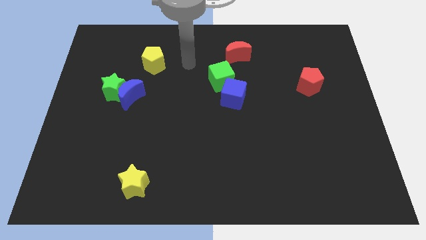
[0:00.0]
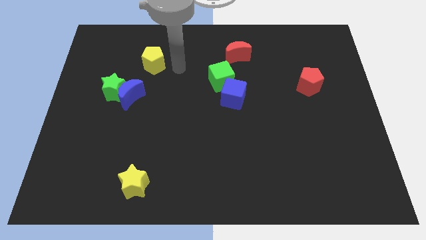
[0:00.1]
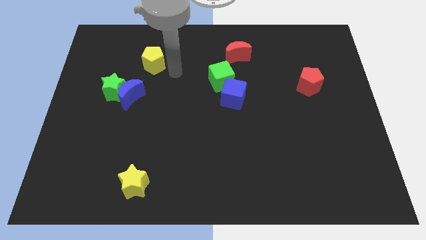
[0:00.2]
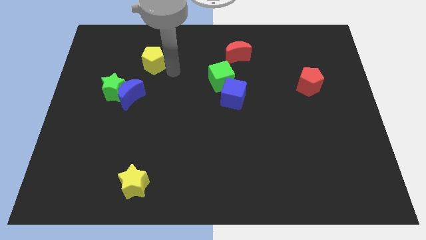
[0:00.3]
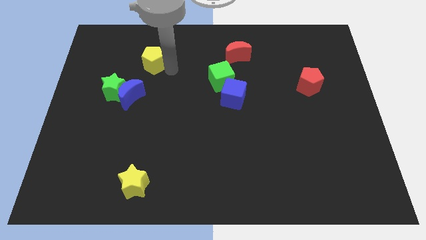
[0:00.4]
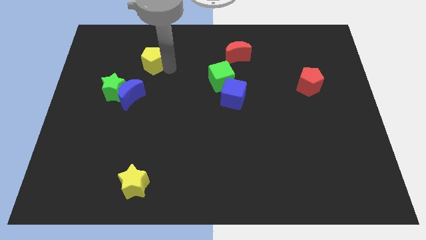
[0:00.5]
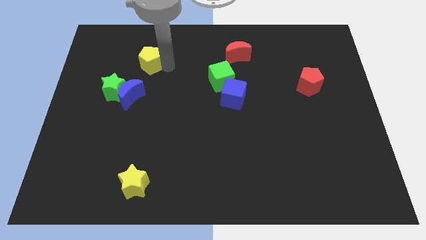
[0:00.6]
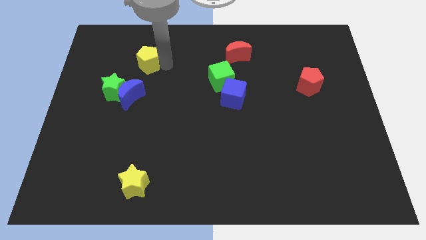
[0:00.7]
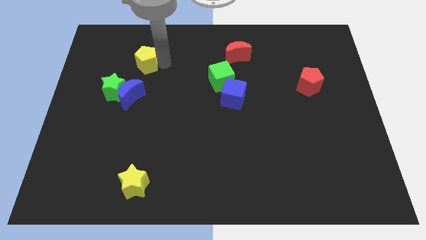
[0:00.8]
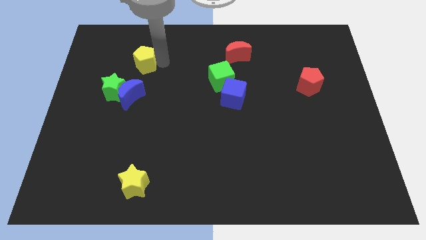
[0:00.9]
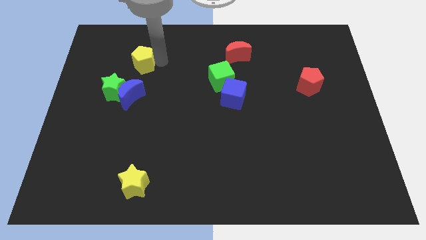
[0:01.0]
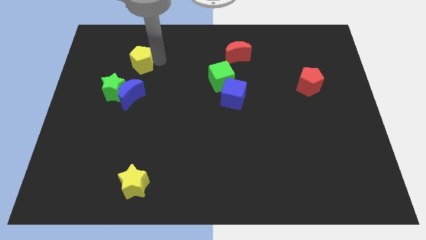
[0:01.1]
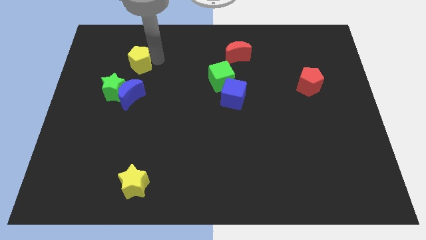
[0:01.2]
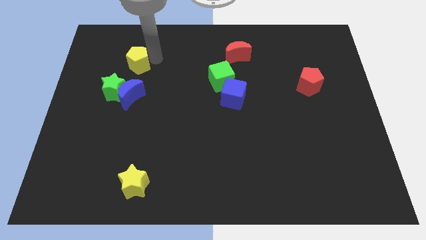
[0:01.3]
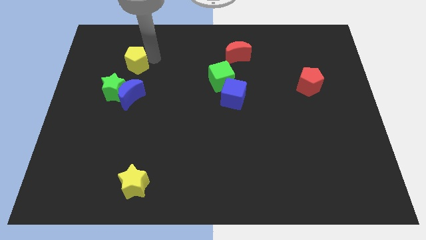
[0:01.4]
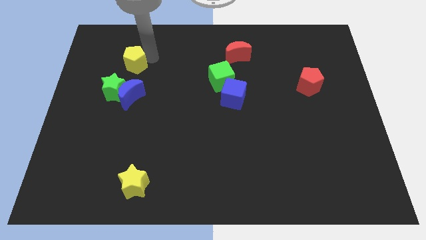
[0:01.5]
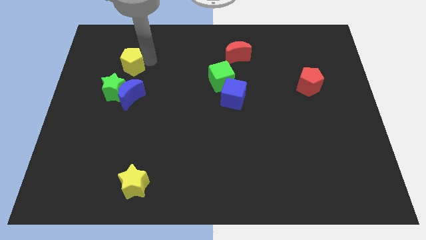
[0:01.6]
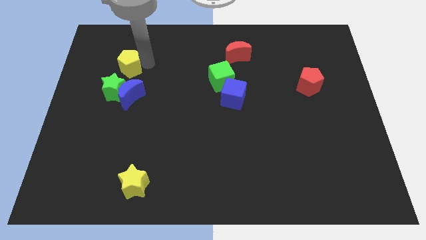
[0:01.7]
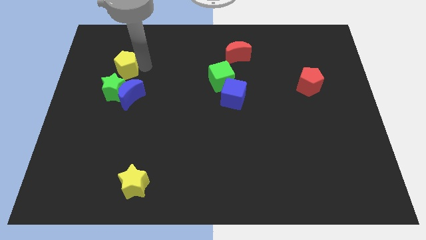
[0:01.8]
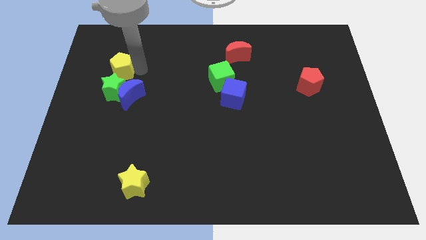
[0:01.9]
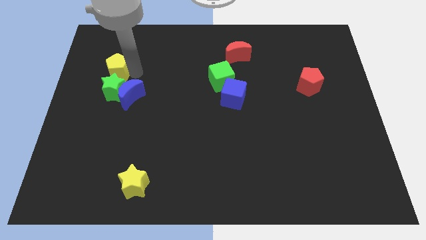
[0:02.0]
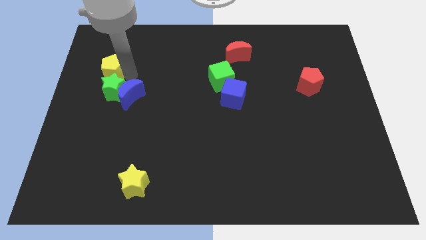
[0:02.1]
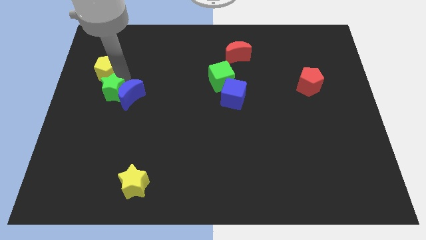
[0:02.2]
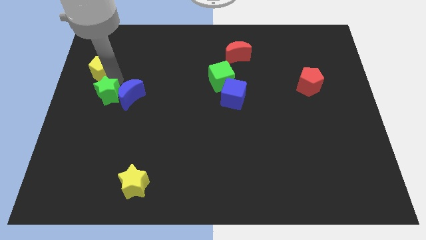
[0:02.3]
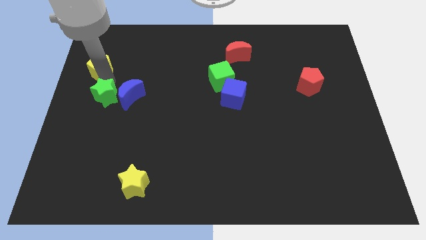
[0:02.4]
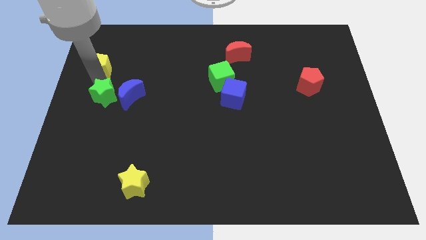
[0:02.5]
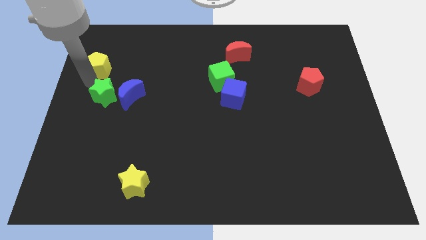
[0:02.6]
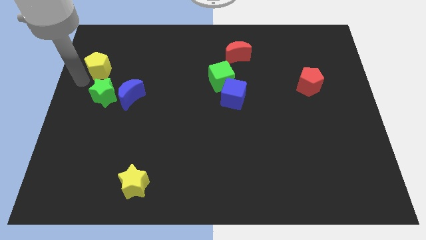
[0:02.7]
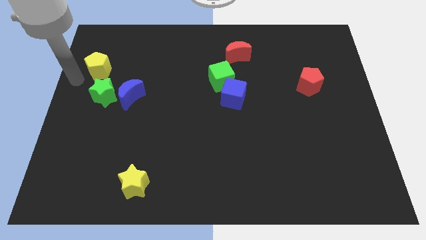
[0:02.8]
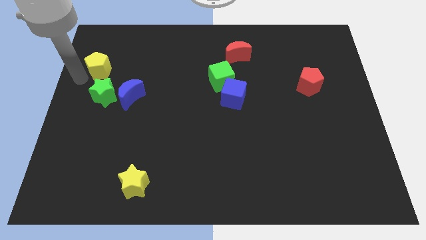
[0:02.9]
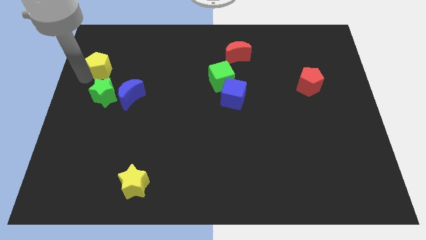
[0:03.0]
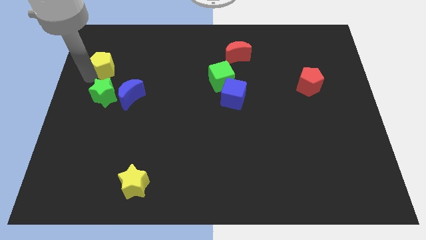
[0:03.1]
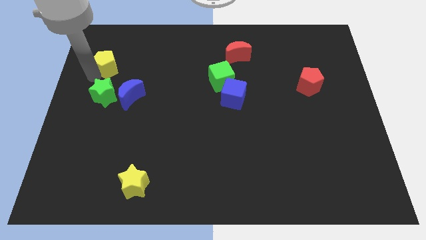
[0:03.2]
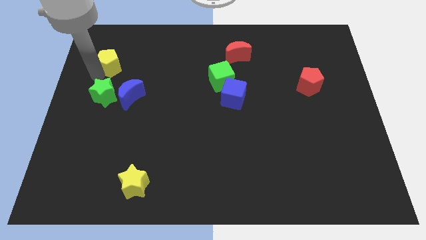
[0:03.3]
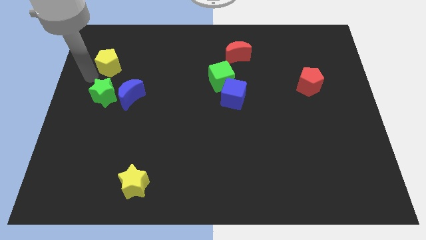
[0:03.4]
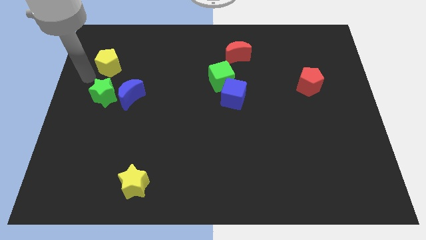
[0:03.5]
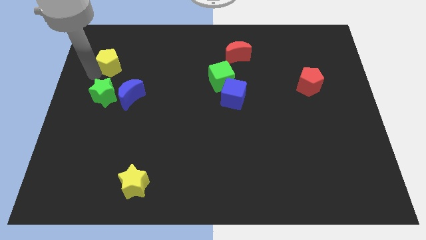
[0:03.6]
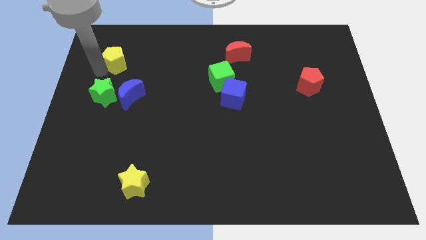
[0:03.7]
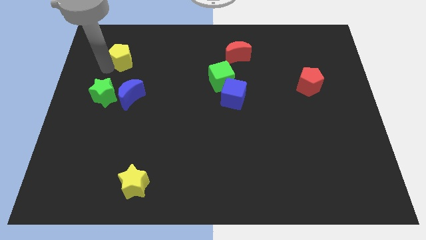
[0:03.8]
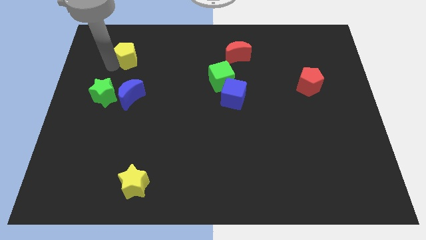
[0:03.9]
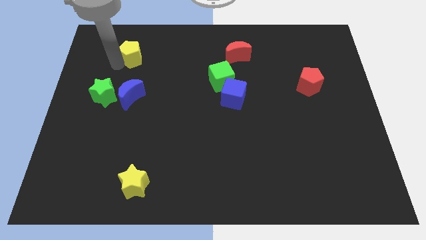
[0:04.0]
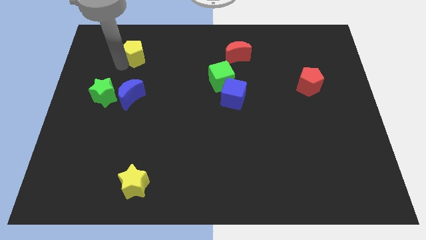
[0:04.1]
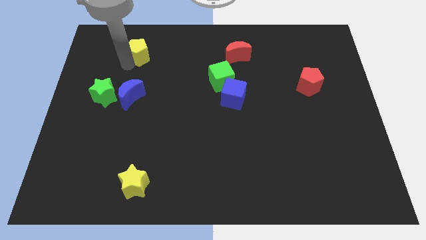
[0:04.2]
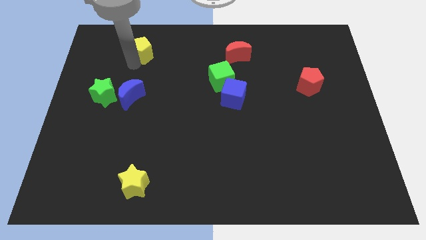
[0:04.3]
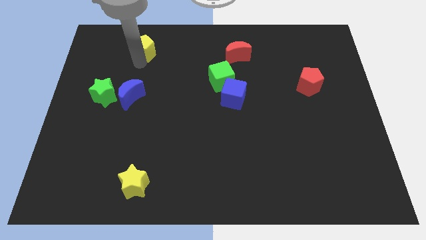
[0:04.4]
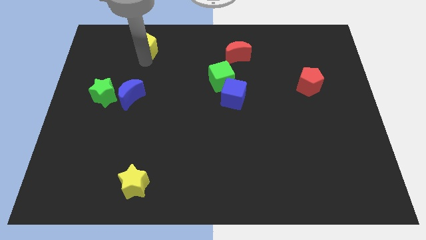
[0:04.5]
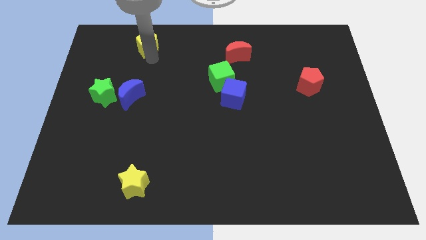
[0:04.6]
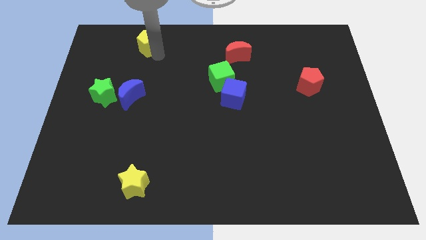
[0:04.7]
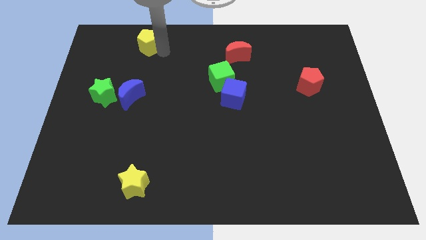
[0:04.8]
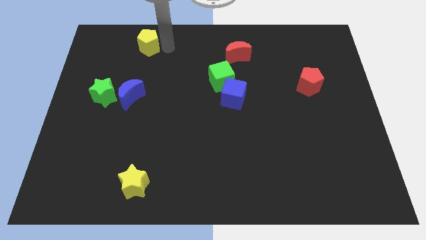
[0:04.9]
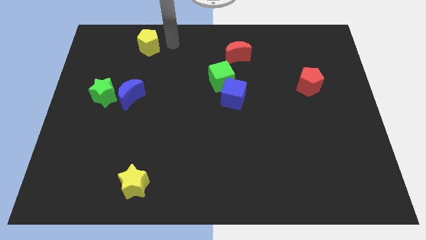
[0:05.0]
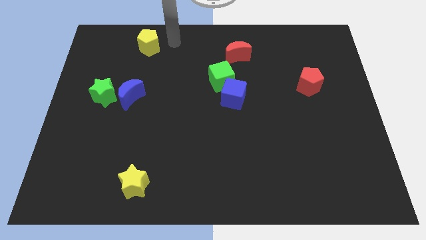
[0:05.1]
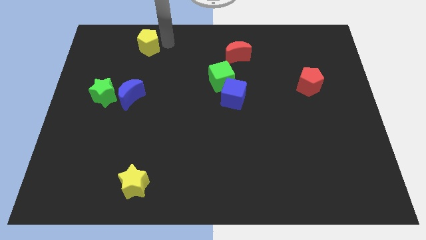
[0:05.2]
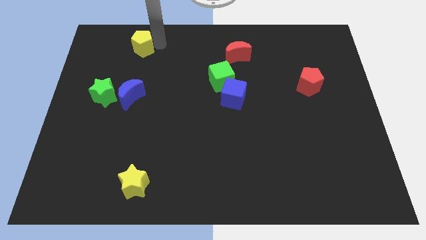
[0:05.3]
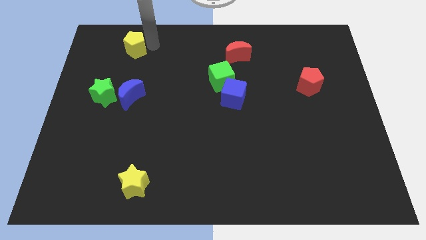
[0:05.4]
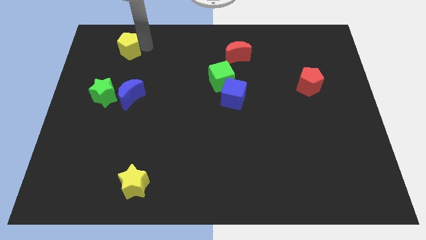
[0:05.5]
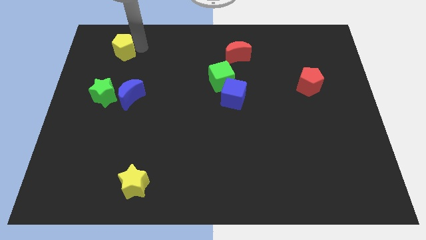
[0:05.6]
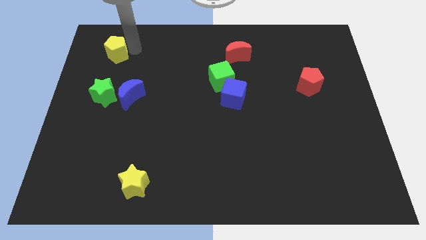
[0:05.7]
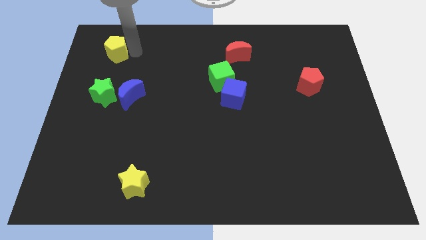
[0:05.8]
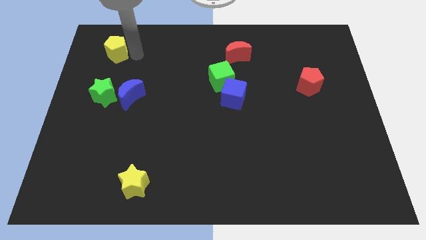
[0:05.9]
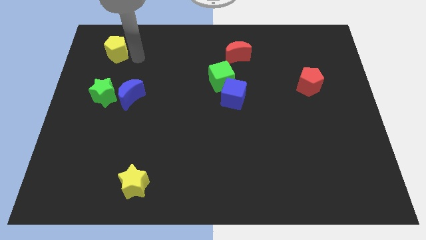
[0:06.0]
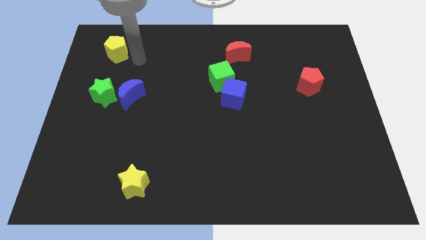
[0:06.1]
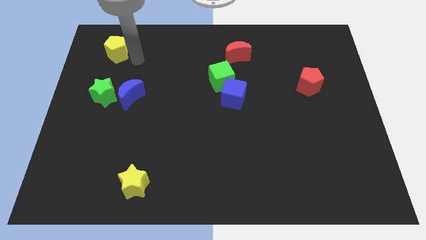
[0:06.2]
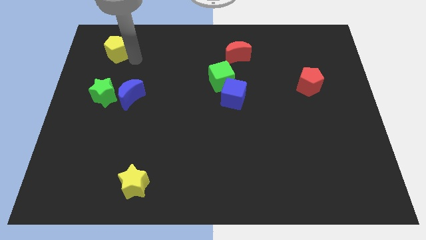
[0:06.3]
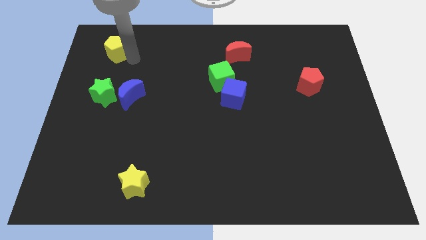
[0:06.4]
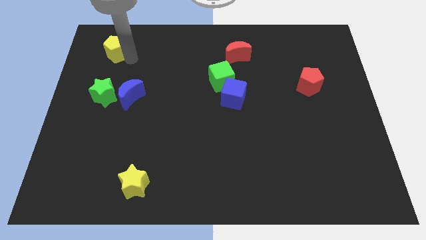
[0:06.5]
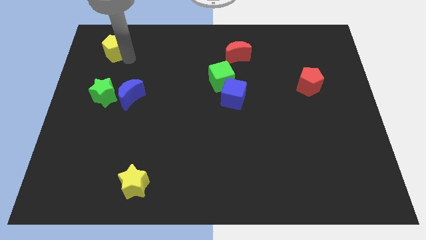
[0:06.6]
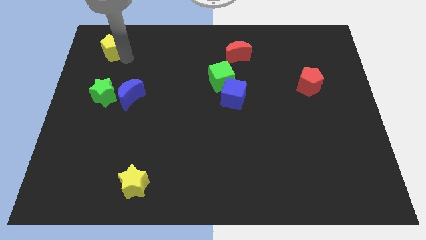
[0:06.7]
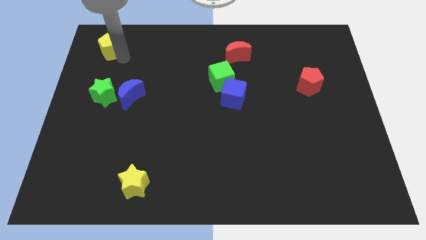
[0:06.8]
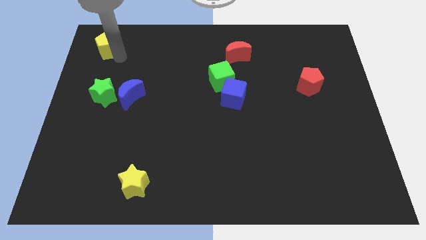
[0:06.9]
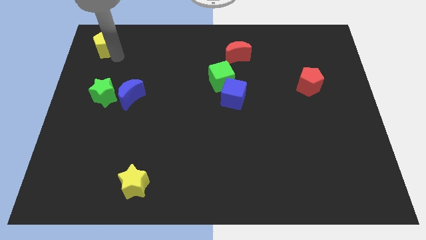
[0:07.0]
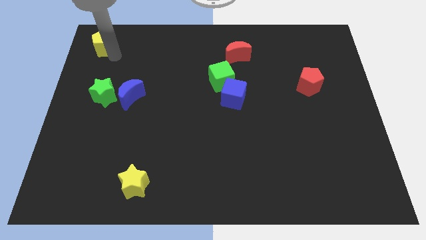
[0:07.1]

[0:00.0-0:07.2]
slide the yellow pentagon to the top left of the board
